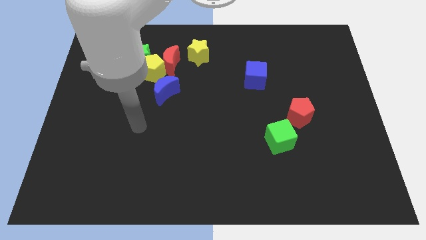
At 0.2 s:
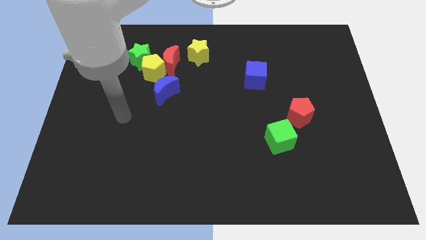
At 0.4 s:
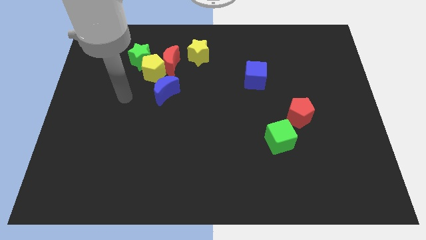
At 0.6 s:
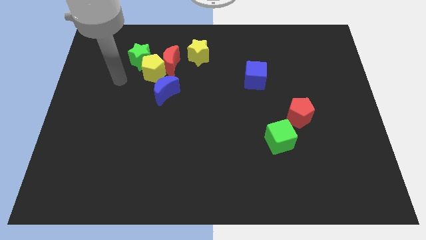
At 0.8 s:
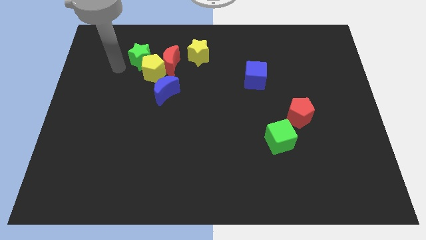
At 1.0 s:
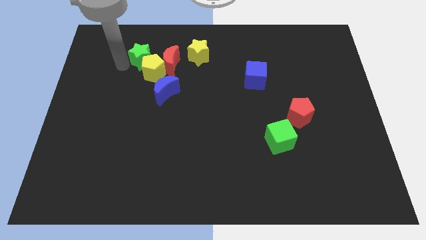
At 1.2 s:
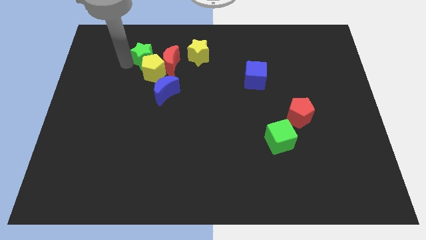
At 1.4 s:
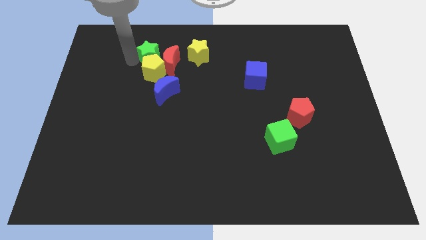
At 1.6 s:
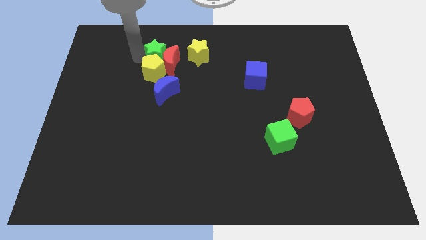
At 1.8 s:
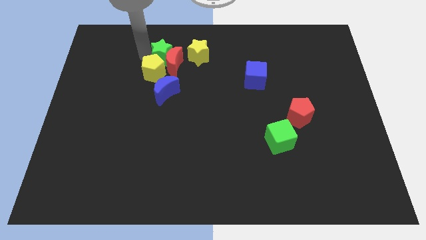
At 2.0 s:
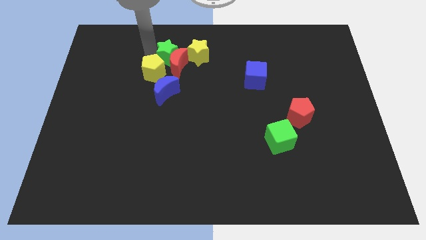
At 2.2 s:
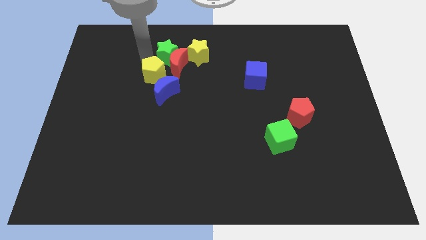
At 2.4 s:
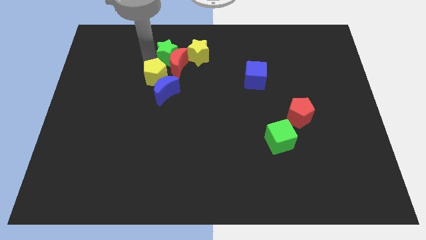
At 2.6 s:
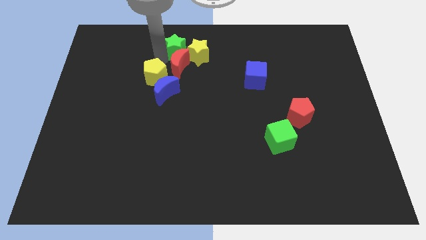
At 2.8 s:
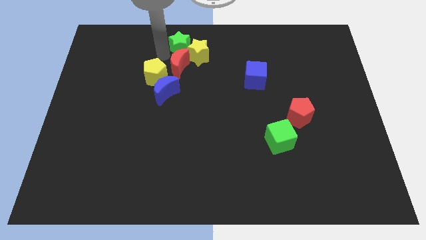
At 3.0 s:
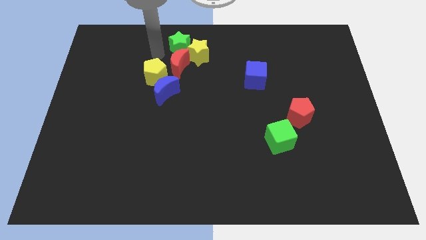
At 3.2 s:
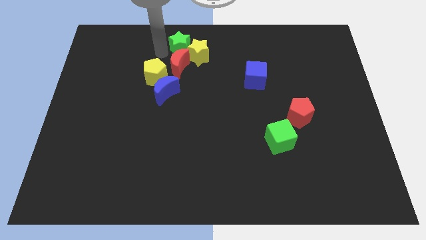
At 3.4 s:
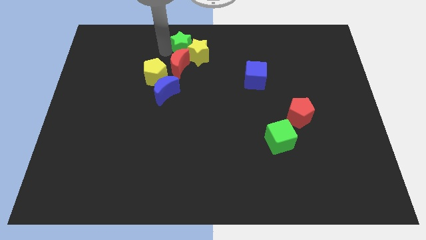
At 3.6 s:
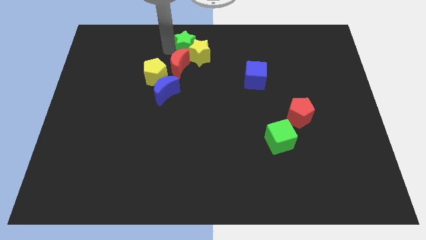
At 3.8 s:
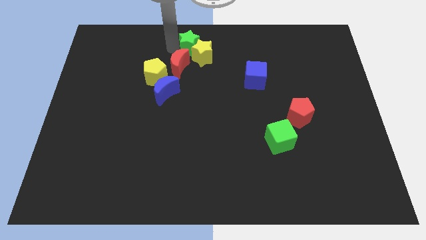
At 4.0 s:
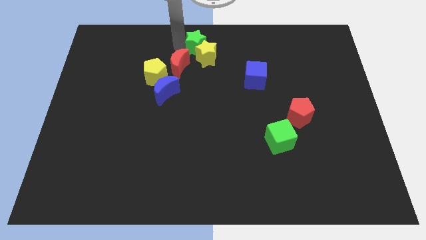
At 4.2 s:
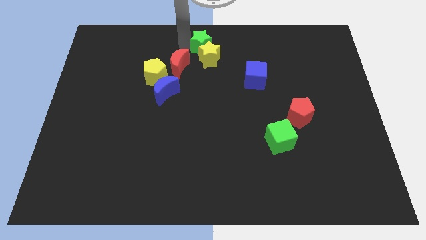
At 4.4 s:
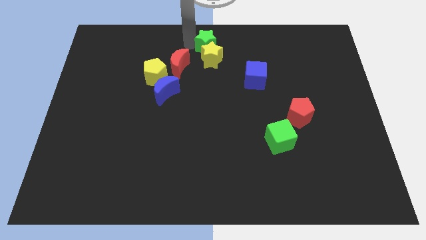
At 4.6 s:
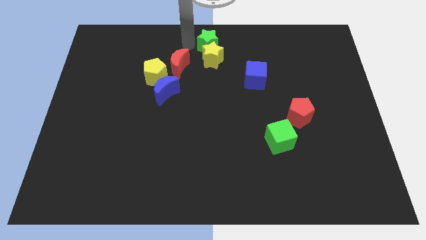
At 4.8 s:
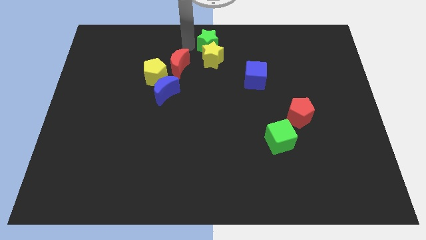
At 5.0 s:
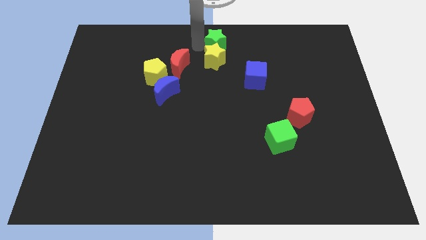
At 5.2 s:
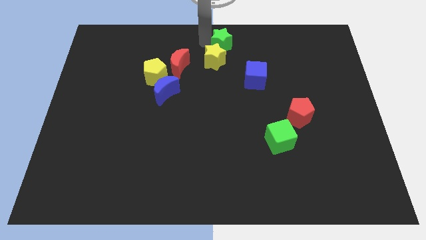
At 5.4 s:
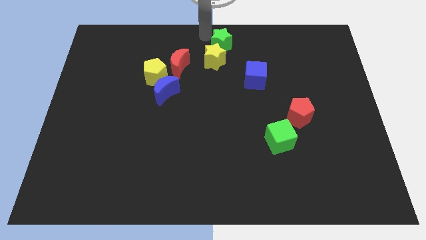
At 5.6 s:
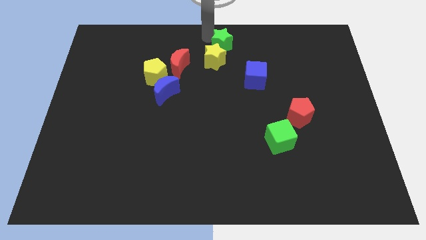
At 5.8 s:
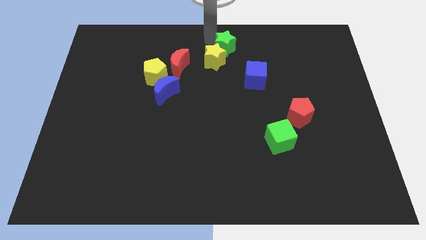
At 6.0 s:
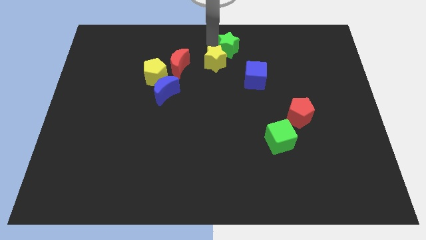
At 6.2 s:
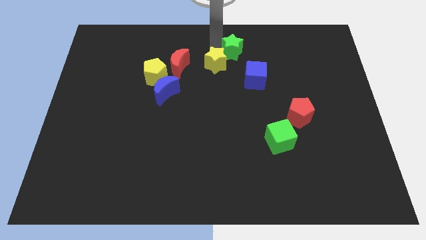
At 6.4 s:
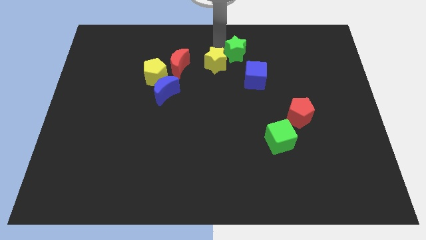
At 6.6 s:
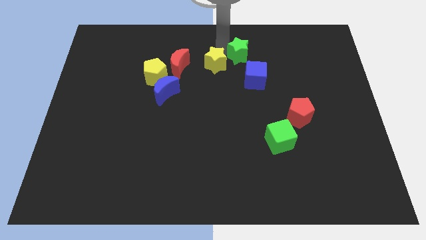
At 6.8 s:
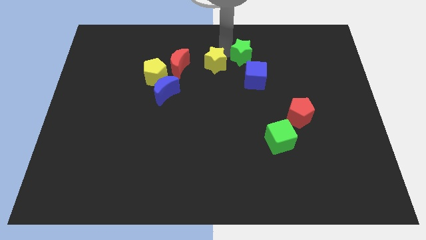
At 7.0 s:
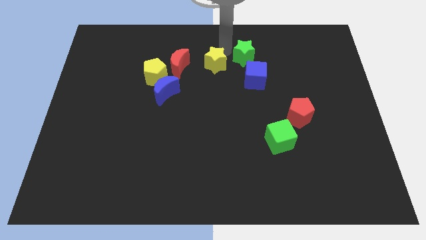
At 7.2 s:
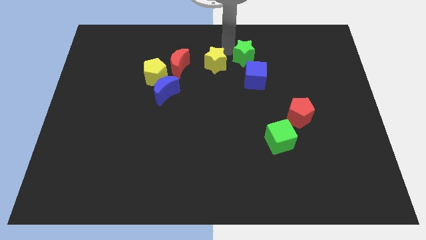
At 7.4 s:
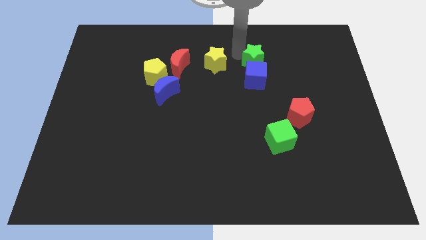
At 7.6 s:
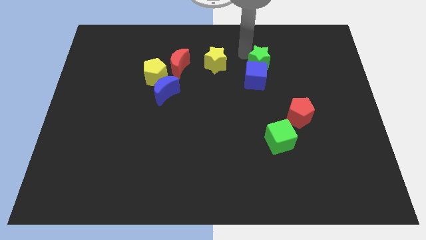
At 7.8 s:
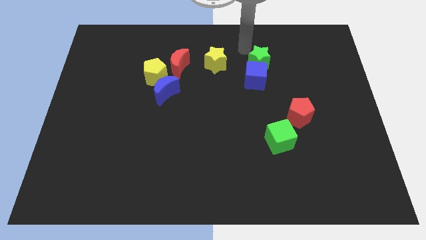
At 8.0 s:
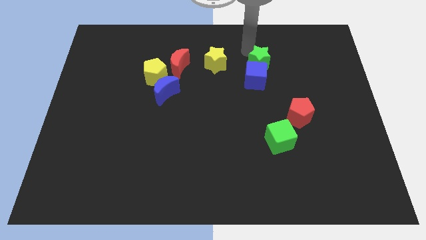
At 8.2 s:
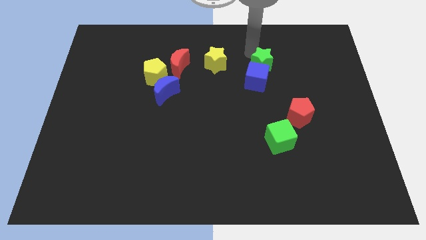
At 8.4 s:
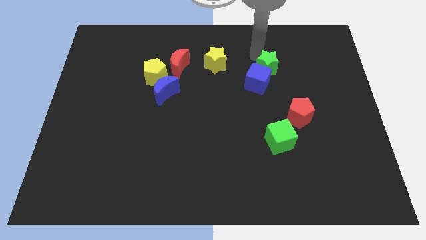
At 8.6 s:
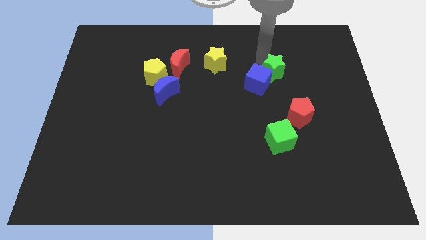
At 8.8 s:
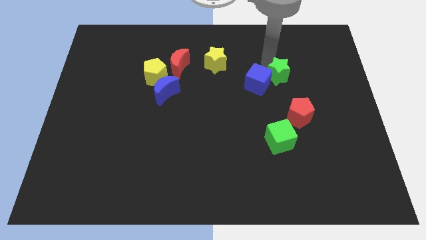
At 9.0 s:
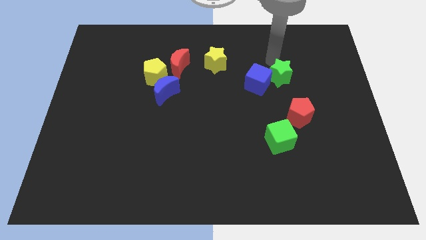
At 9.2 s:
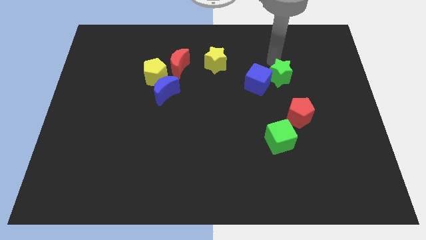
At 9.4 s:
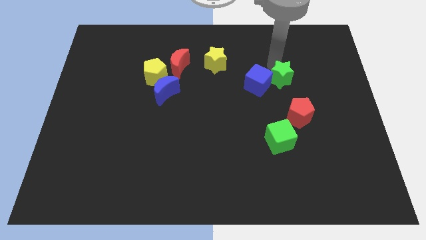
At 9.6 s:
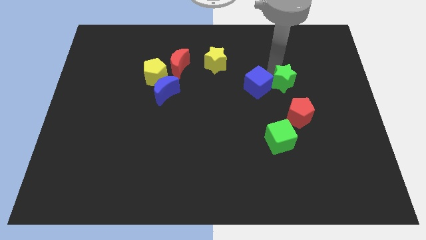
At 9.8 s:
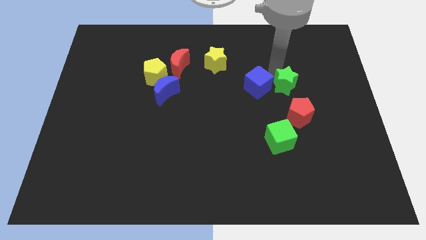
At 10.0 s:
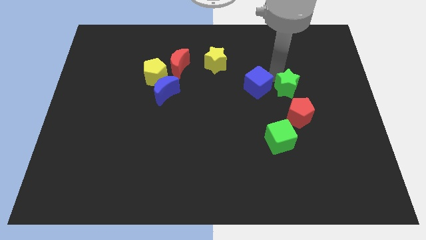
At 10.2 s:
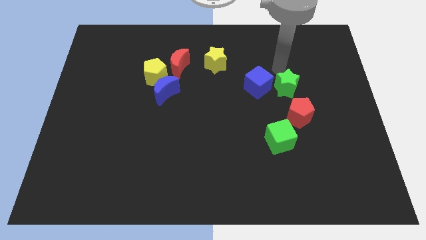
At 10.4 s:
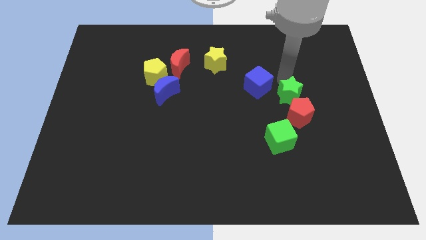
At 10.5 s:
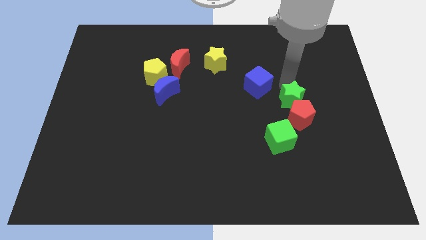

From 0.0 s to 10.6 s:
slide the green star to the red pentagon

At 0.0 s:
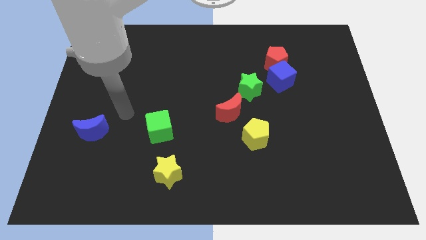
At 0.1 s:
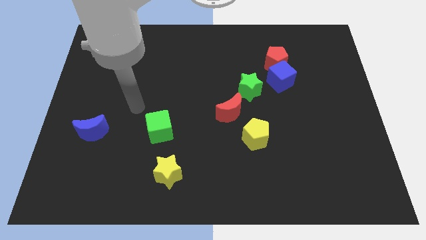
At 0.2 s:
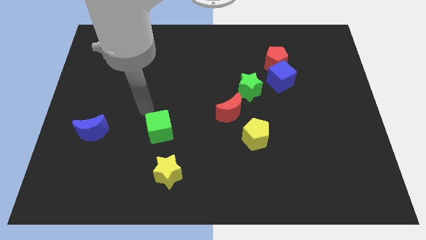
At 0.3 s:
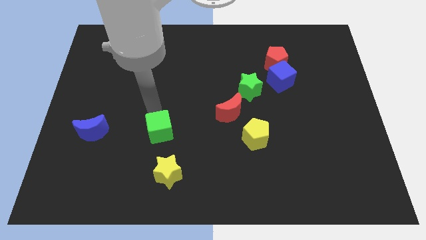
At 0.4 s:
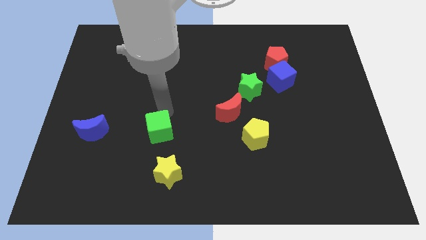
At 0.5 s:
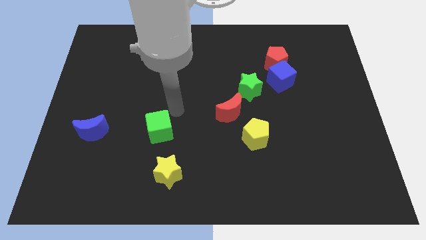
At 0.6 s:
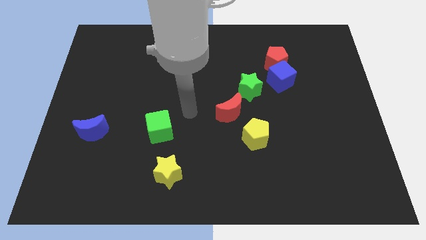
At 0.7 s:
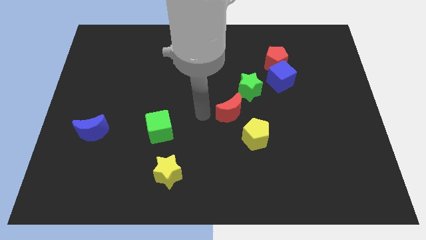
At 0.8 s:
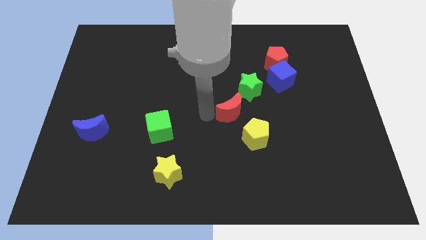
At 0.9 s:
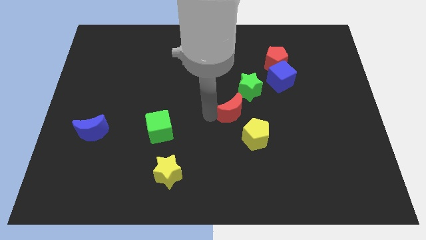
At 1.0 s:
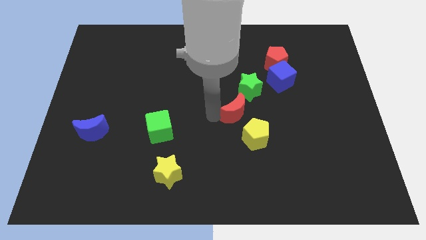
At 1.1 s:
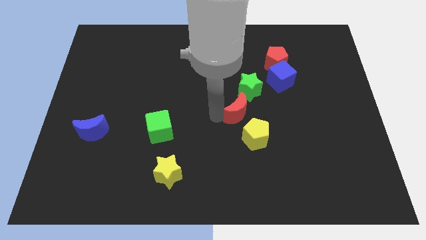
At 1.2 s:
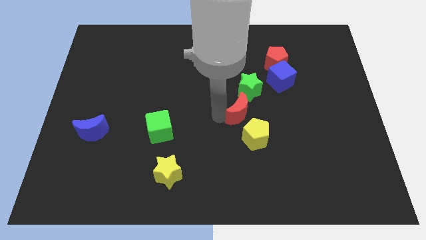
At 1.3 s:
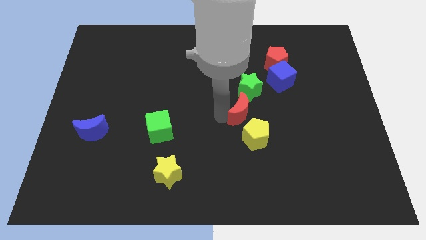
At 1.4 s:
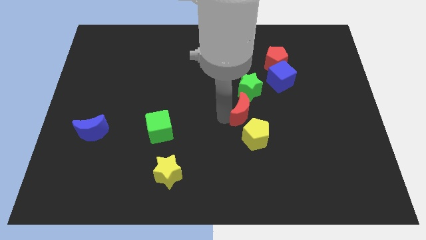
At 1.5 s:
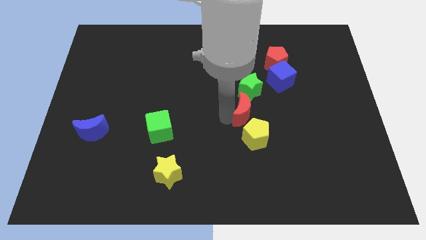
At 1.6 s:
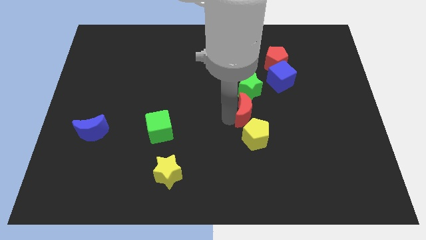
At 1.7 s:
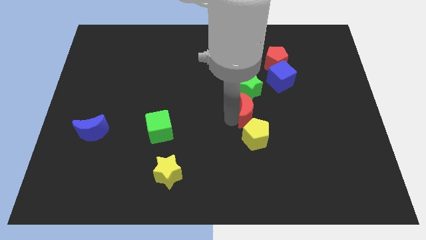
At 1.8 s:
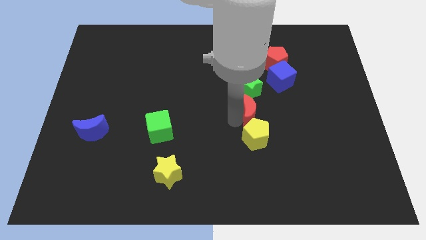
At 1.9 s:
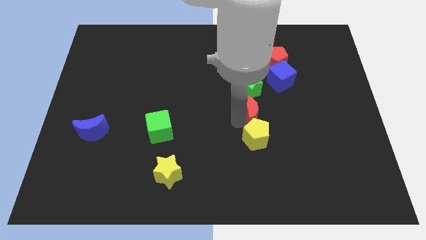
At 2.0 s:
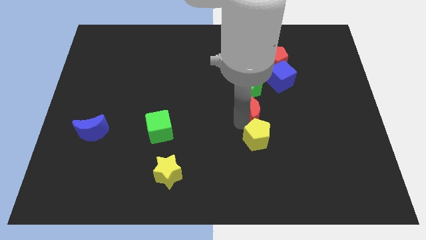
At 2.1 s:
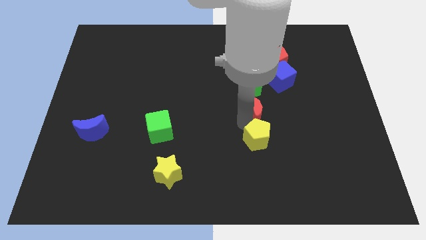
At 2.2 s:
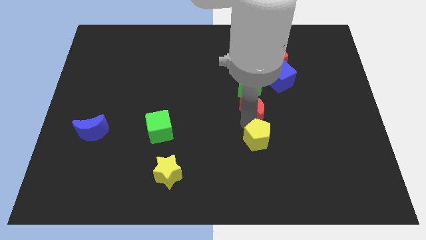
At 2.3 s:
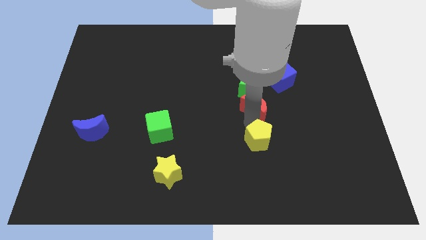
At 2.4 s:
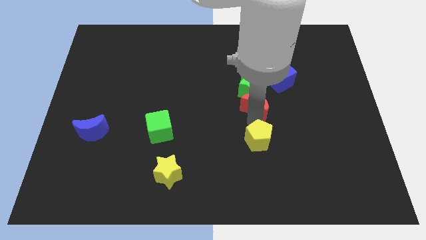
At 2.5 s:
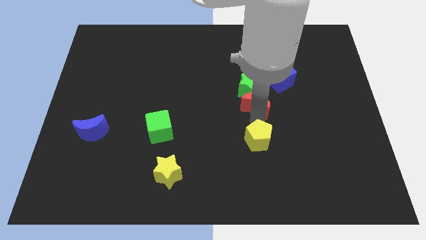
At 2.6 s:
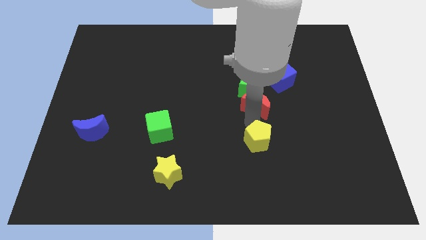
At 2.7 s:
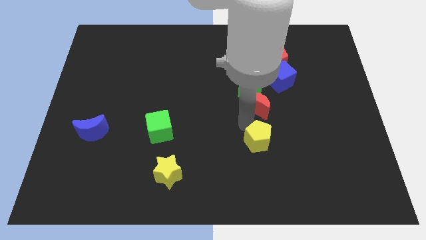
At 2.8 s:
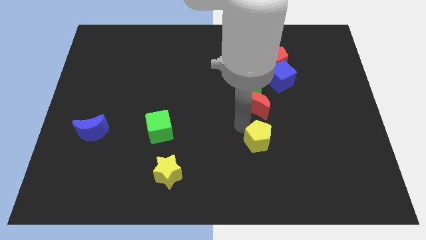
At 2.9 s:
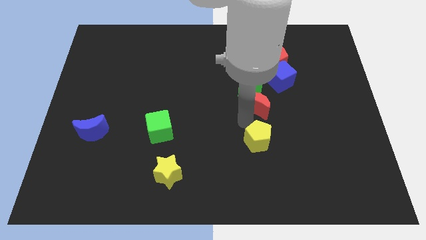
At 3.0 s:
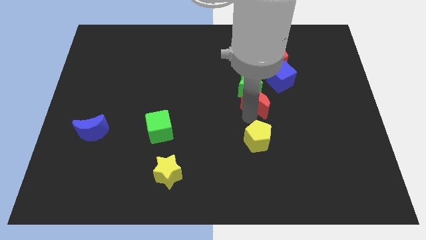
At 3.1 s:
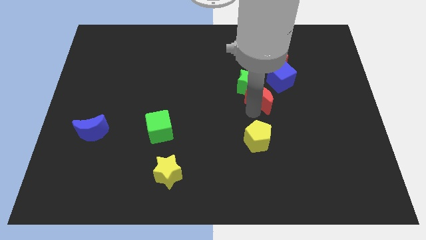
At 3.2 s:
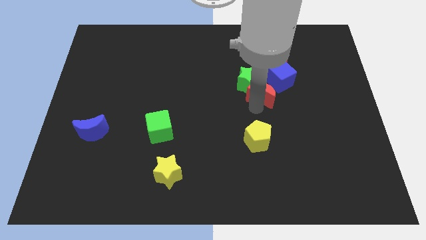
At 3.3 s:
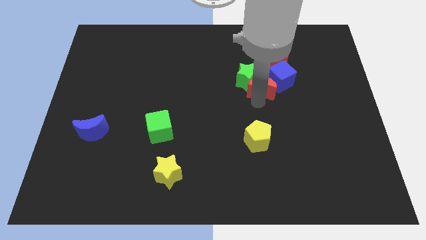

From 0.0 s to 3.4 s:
slide the red moon towards the blue cube
